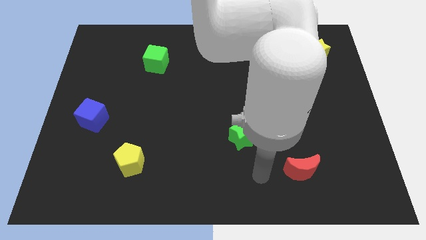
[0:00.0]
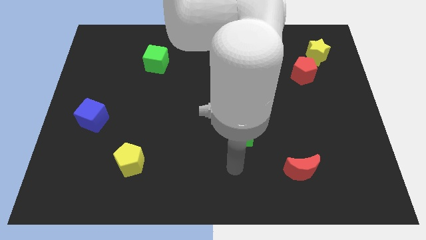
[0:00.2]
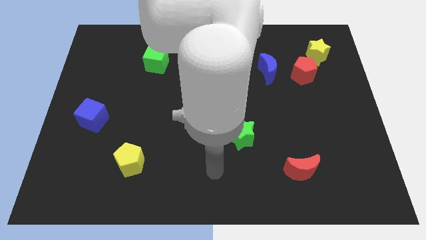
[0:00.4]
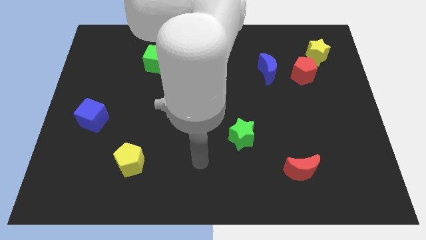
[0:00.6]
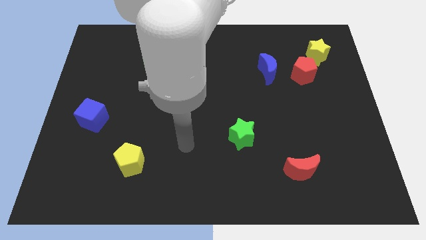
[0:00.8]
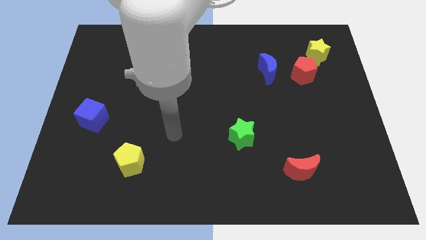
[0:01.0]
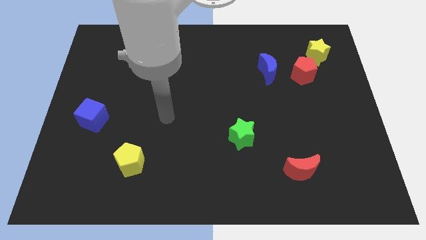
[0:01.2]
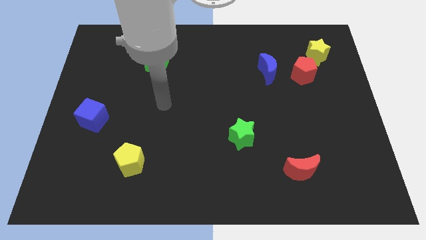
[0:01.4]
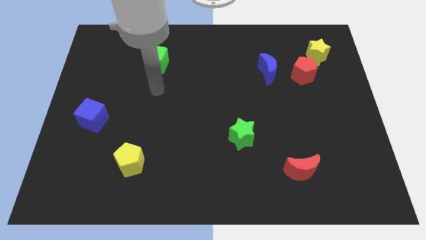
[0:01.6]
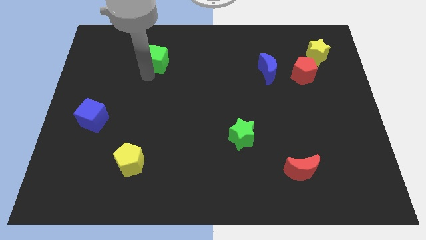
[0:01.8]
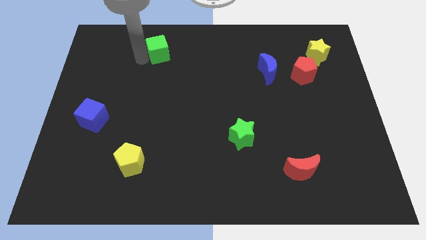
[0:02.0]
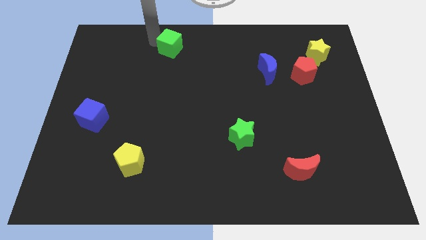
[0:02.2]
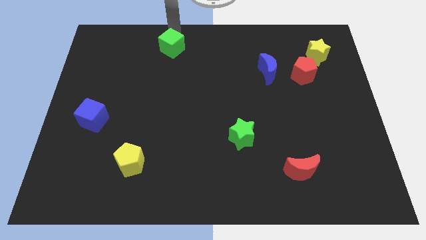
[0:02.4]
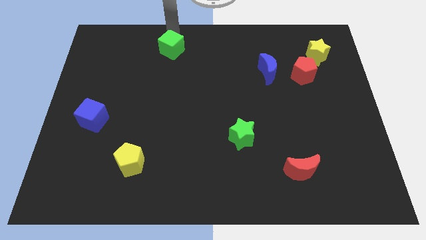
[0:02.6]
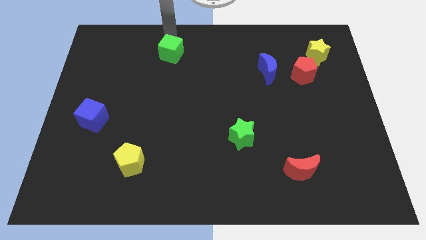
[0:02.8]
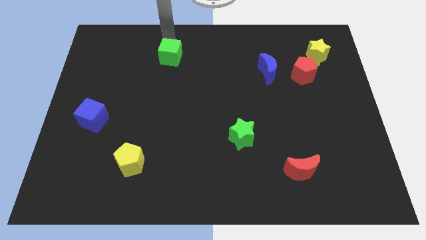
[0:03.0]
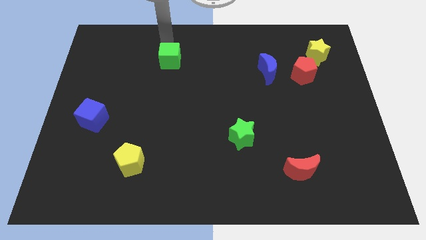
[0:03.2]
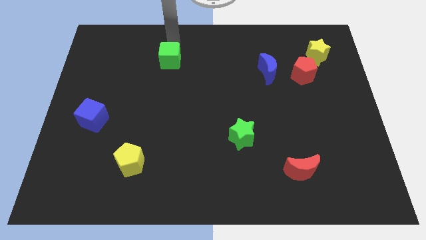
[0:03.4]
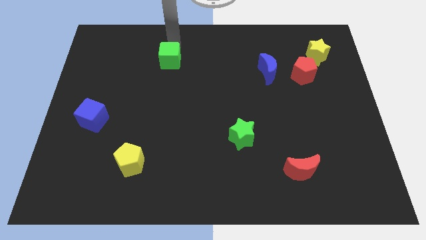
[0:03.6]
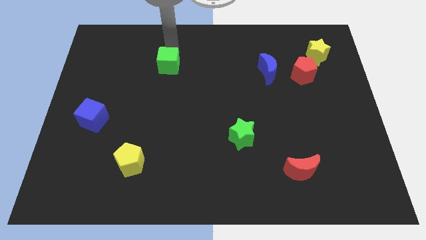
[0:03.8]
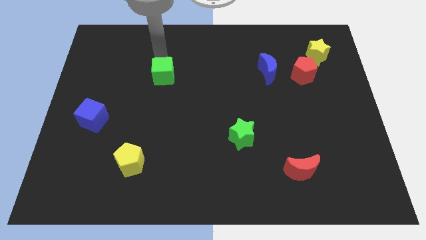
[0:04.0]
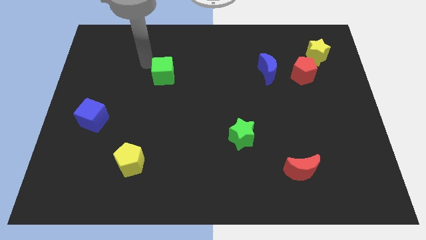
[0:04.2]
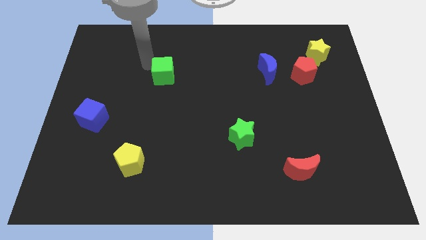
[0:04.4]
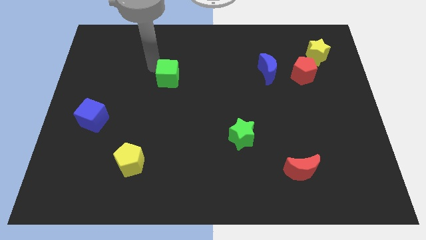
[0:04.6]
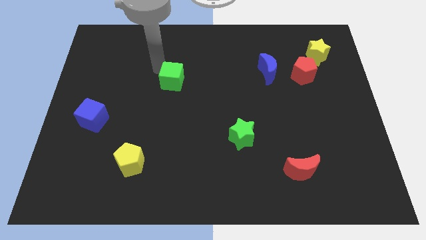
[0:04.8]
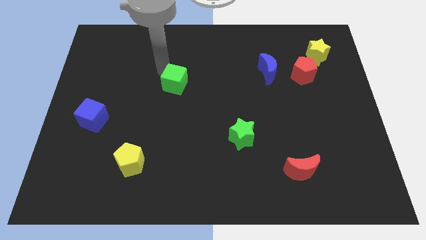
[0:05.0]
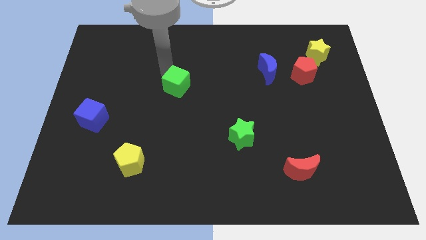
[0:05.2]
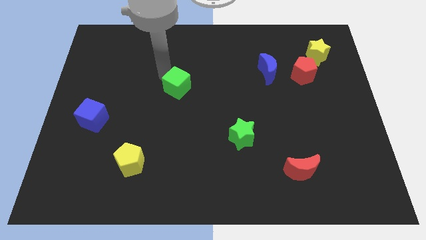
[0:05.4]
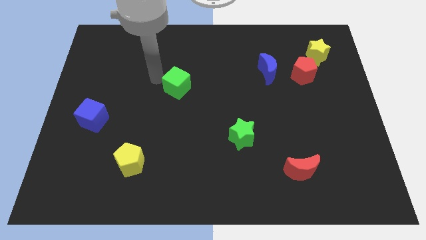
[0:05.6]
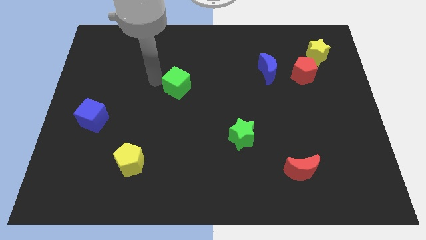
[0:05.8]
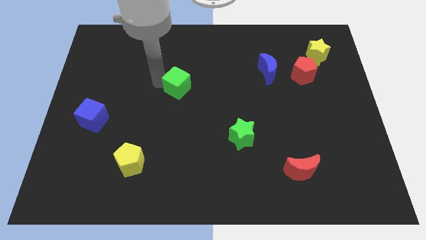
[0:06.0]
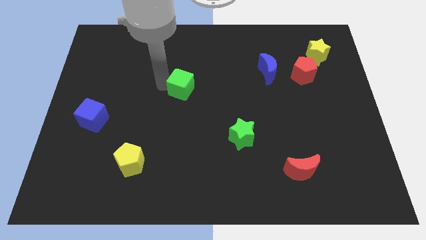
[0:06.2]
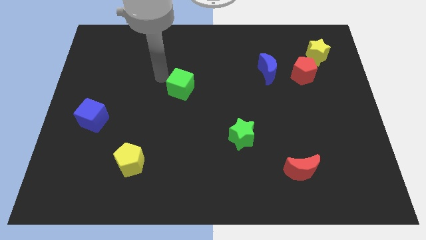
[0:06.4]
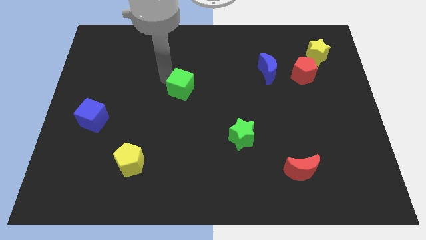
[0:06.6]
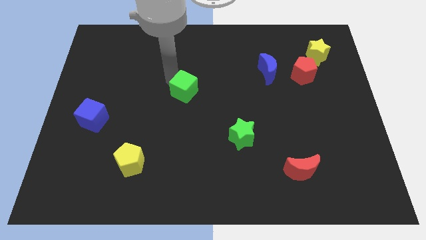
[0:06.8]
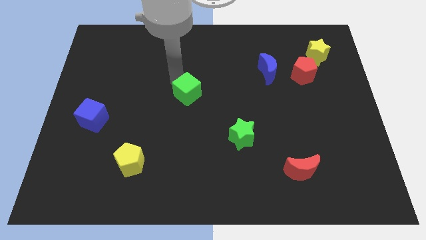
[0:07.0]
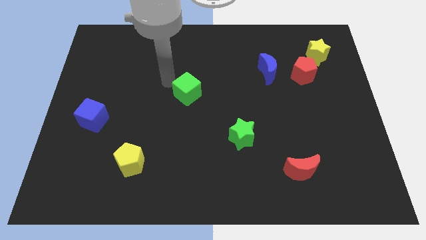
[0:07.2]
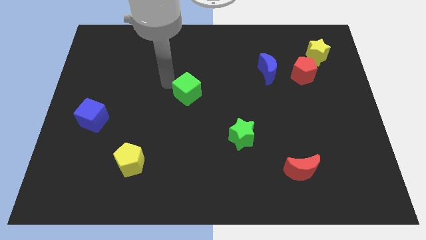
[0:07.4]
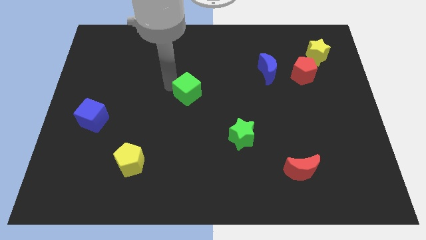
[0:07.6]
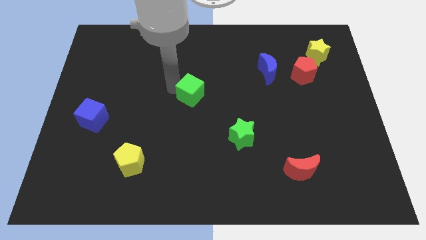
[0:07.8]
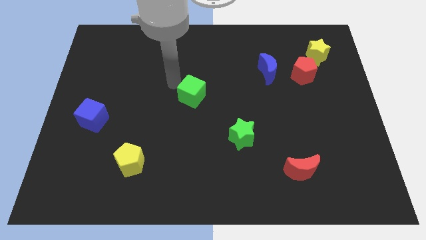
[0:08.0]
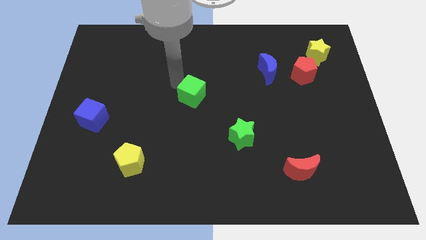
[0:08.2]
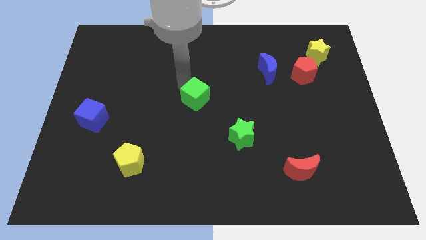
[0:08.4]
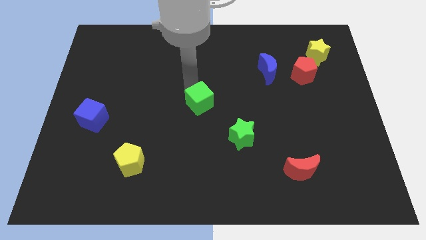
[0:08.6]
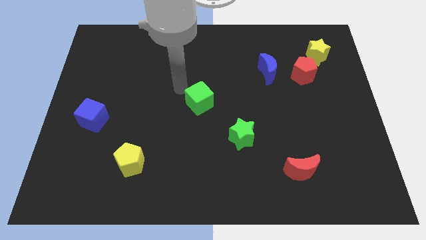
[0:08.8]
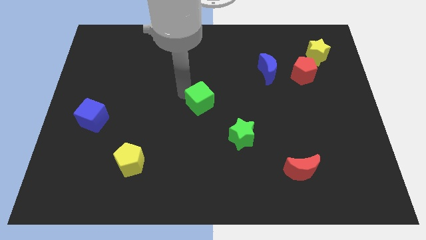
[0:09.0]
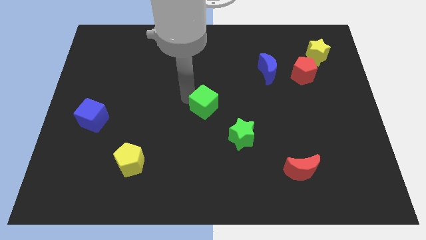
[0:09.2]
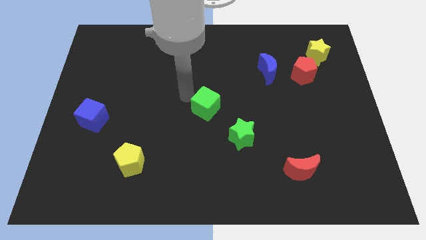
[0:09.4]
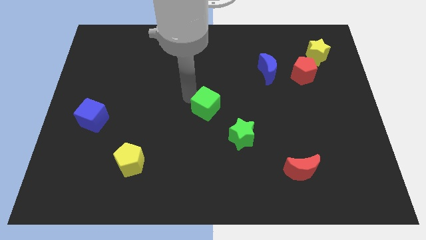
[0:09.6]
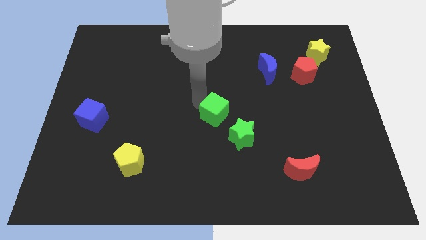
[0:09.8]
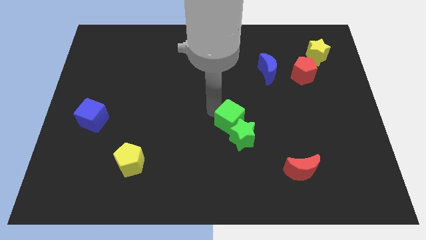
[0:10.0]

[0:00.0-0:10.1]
push the green cube close to the green star

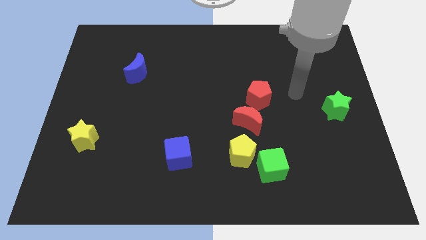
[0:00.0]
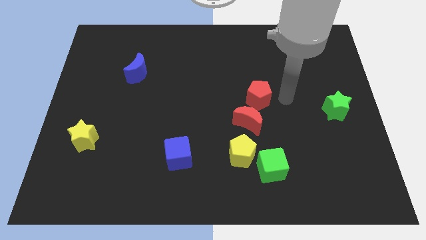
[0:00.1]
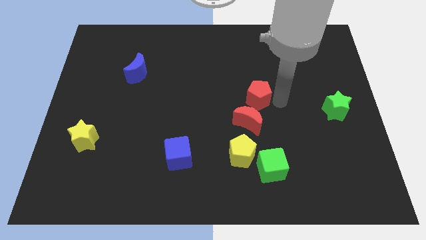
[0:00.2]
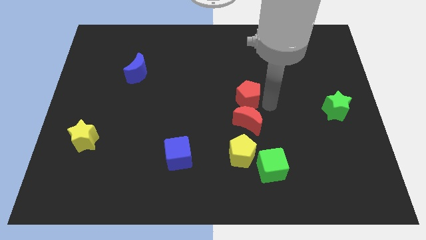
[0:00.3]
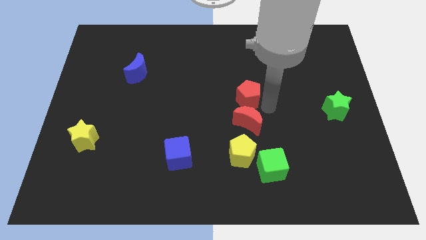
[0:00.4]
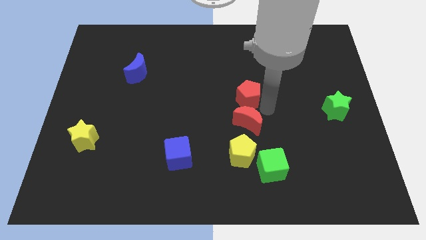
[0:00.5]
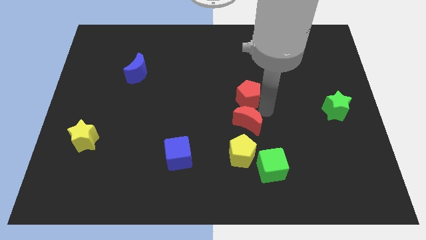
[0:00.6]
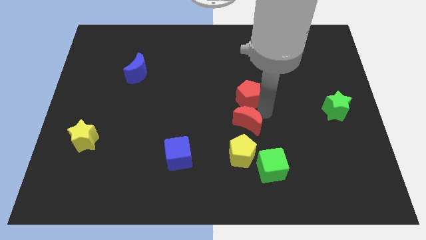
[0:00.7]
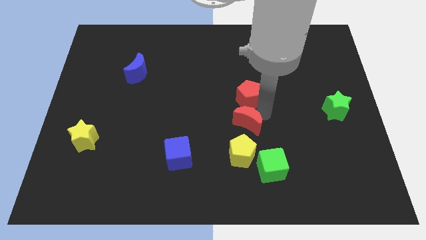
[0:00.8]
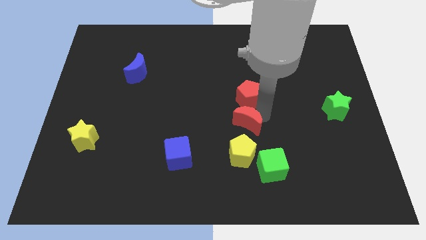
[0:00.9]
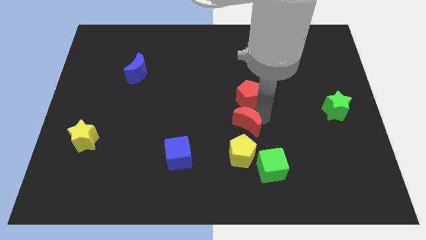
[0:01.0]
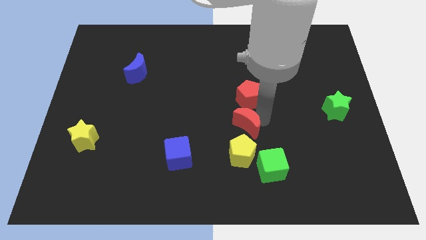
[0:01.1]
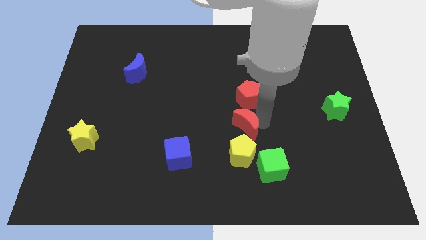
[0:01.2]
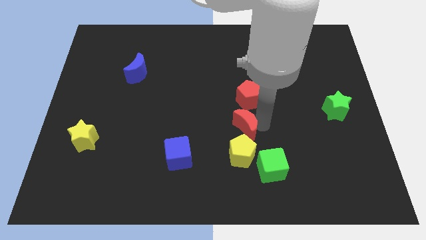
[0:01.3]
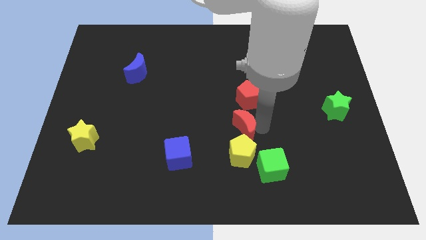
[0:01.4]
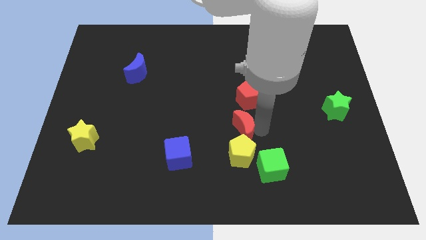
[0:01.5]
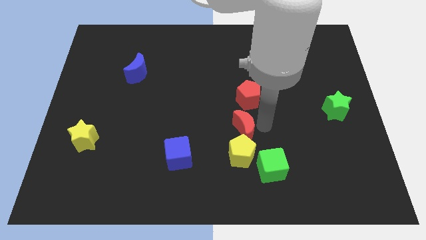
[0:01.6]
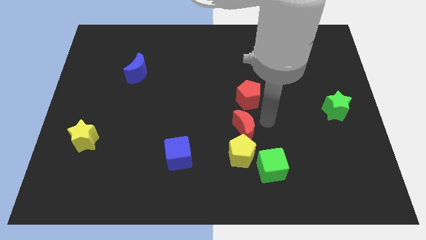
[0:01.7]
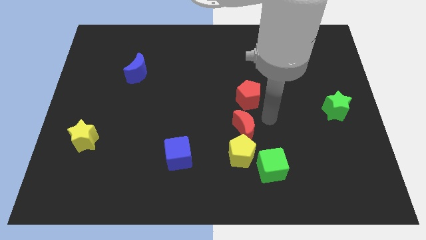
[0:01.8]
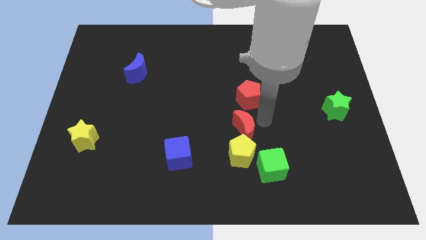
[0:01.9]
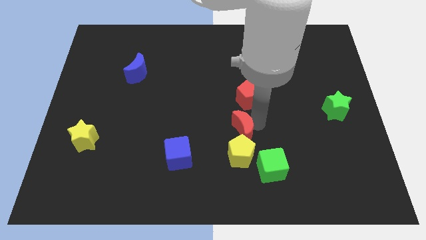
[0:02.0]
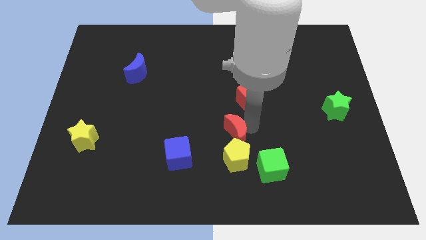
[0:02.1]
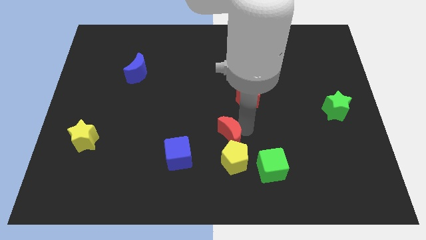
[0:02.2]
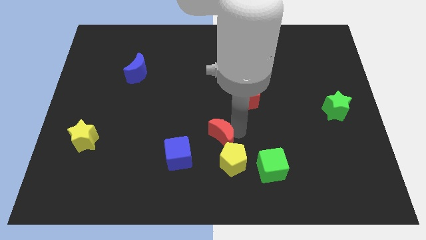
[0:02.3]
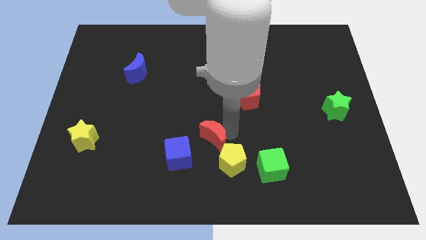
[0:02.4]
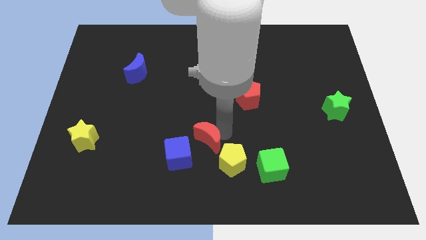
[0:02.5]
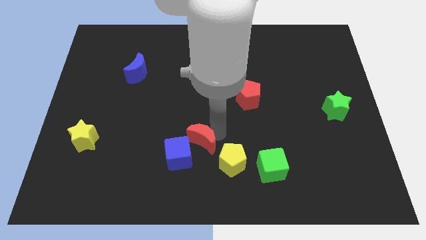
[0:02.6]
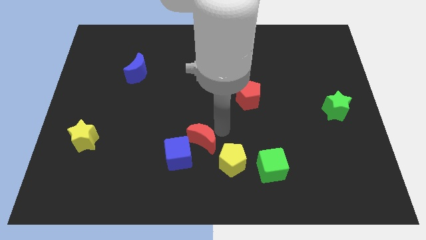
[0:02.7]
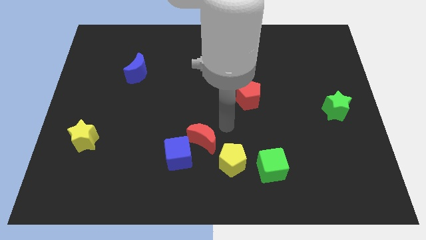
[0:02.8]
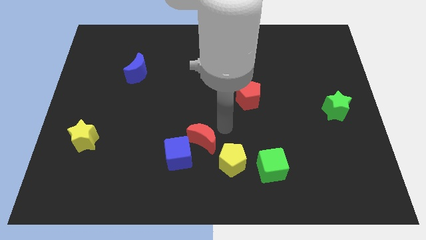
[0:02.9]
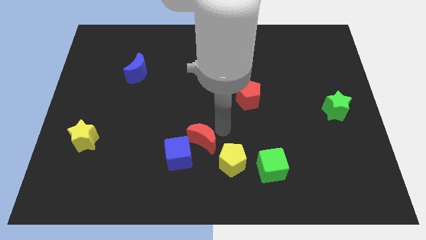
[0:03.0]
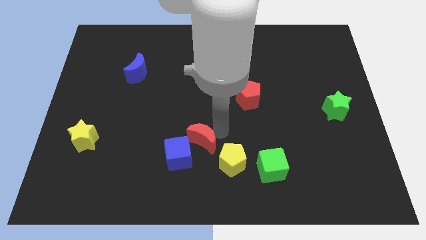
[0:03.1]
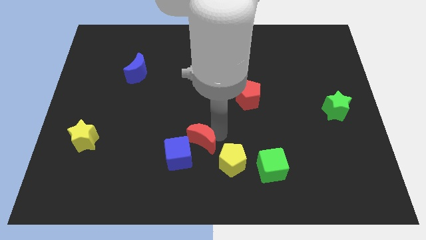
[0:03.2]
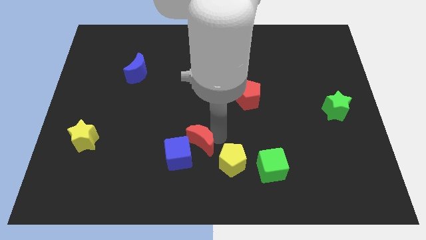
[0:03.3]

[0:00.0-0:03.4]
put the red moon close to the blue cube
